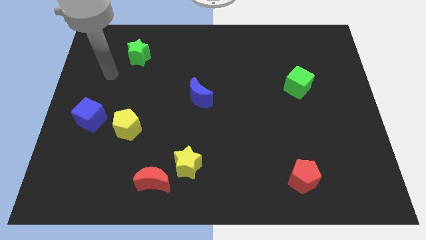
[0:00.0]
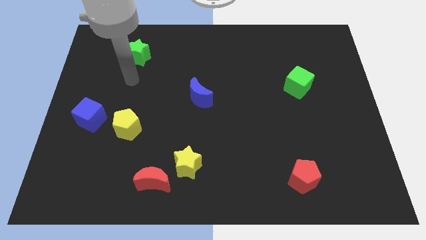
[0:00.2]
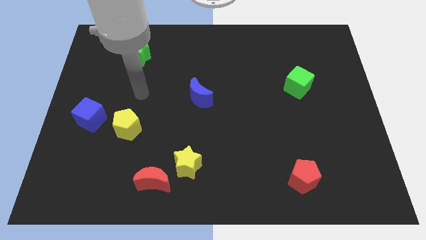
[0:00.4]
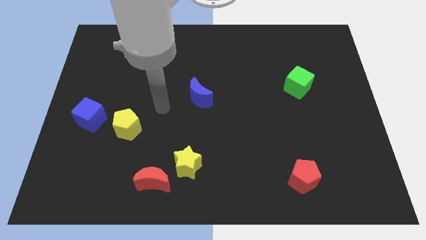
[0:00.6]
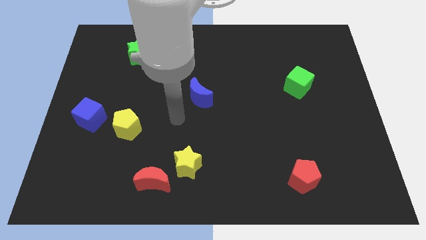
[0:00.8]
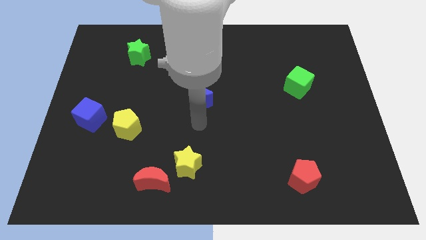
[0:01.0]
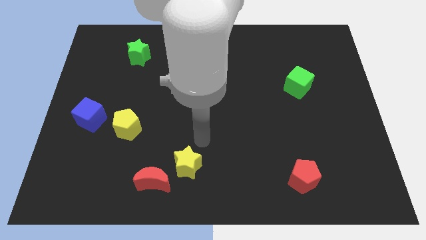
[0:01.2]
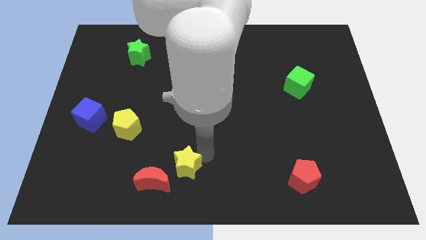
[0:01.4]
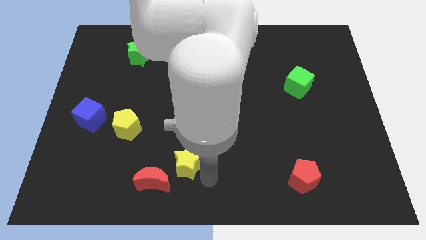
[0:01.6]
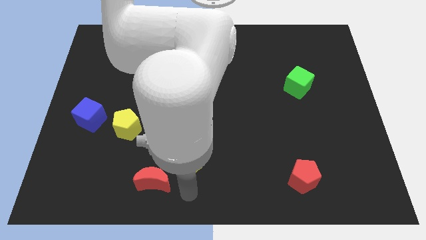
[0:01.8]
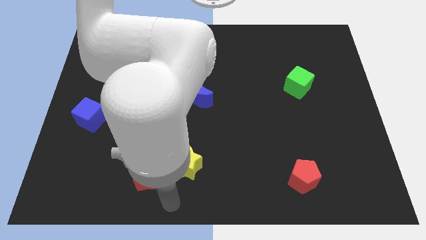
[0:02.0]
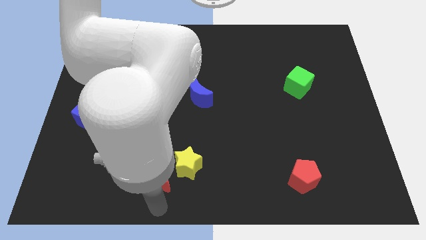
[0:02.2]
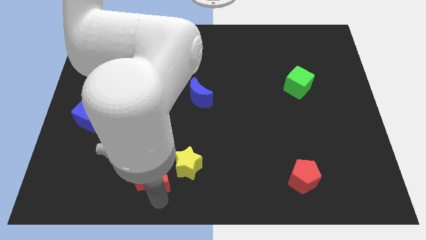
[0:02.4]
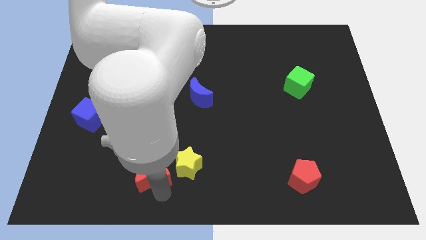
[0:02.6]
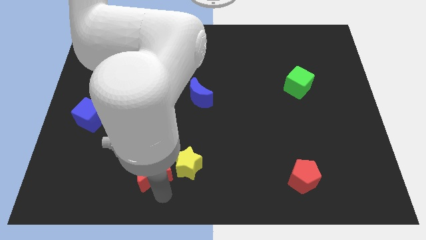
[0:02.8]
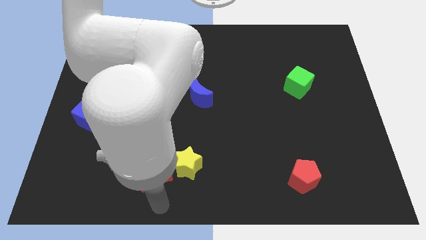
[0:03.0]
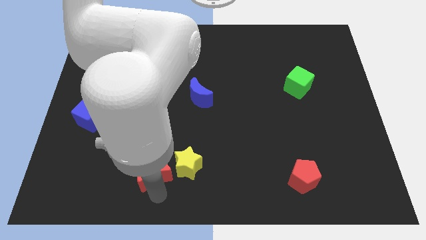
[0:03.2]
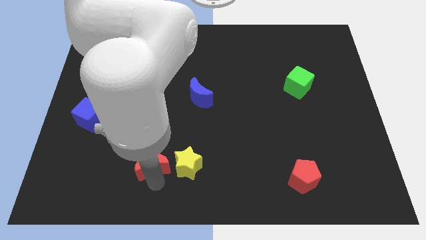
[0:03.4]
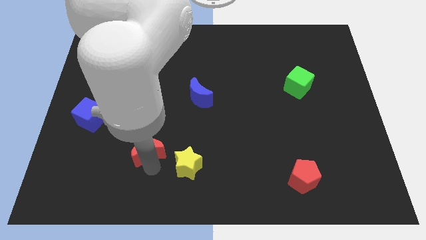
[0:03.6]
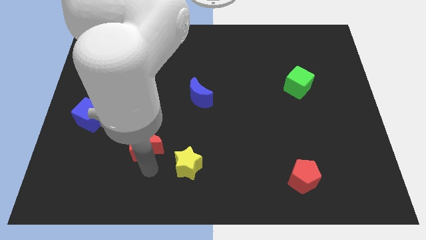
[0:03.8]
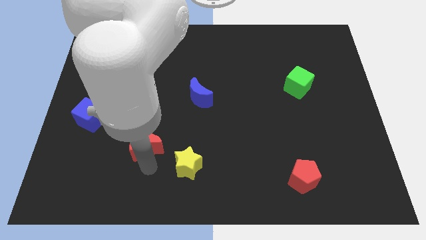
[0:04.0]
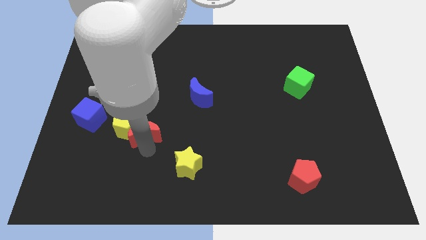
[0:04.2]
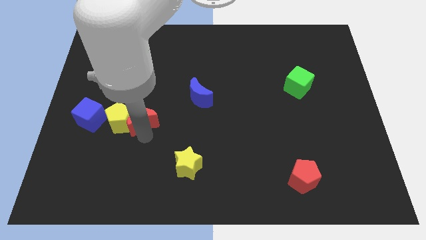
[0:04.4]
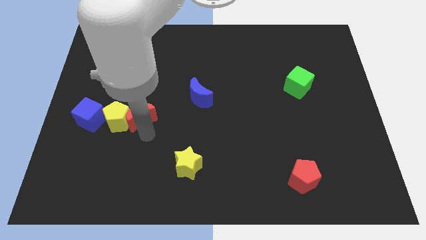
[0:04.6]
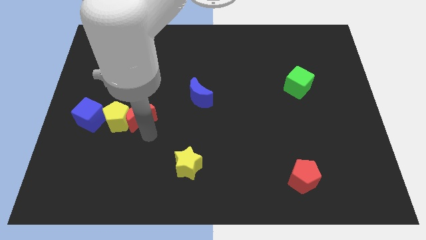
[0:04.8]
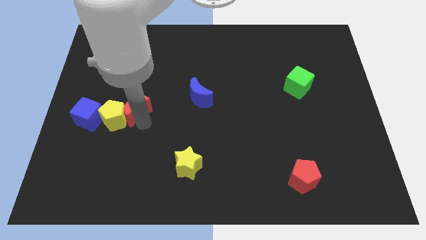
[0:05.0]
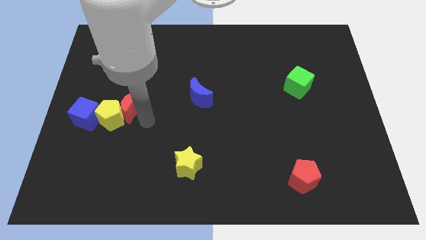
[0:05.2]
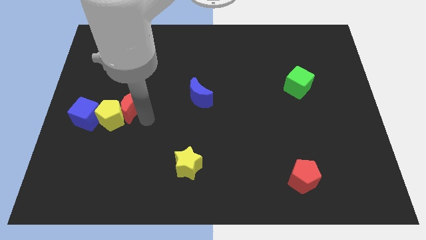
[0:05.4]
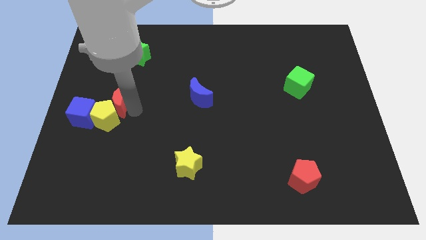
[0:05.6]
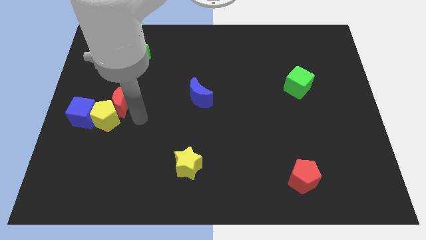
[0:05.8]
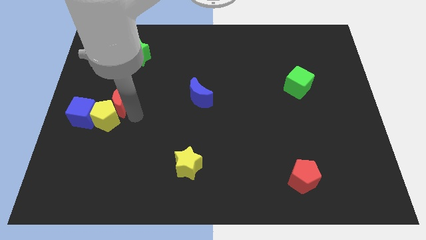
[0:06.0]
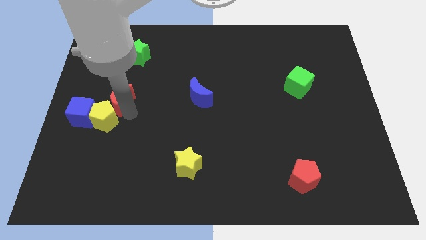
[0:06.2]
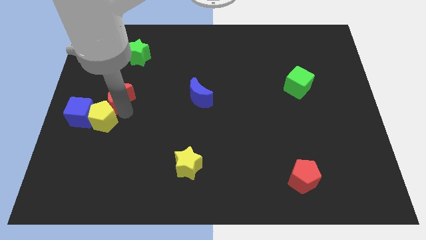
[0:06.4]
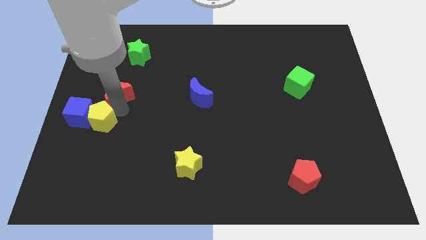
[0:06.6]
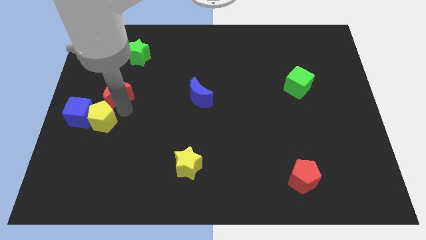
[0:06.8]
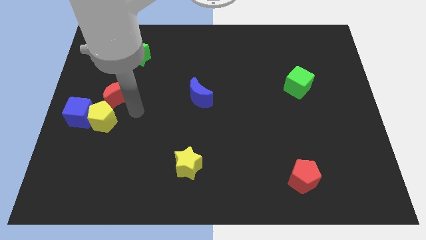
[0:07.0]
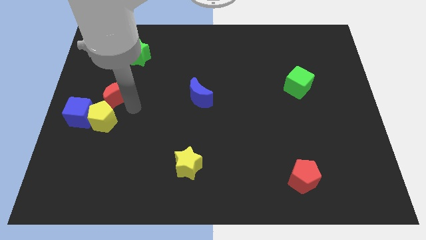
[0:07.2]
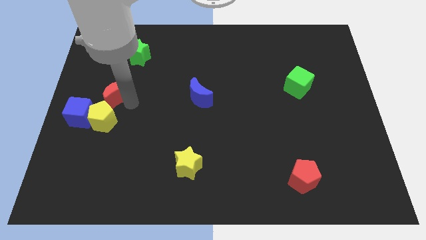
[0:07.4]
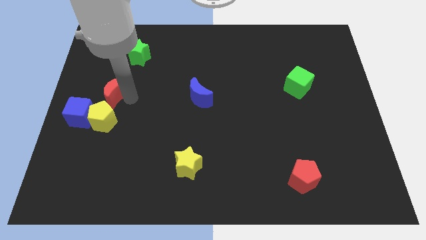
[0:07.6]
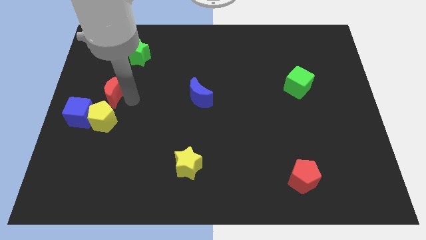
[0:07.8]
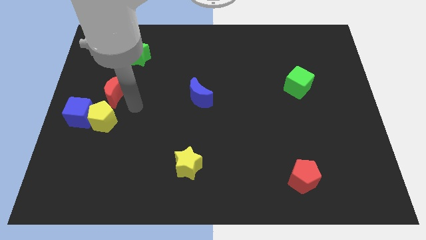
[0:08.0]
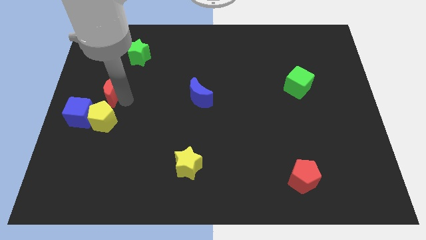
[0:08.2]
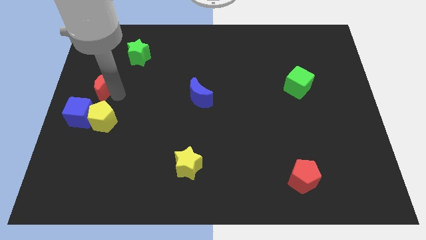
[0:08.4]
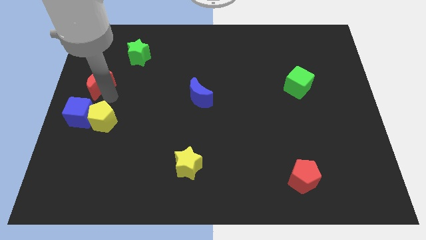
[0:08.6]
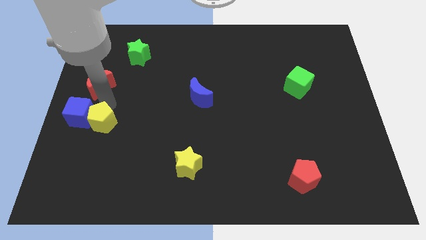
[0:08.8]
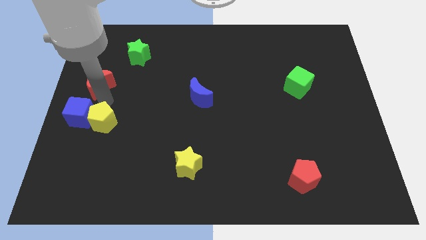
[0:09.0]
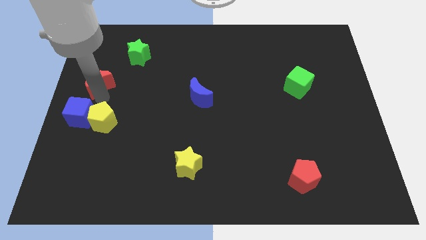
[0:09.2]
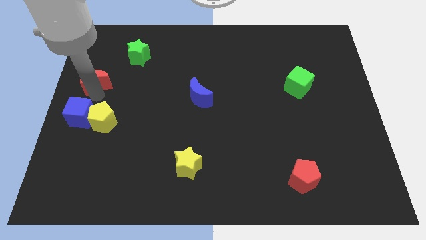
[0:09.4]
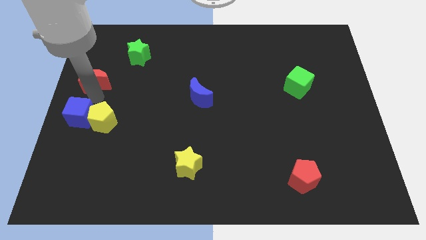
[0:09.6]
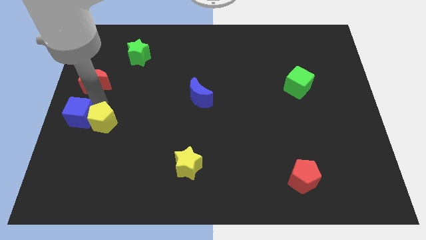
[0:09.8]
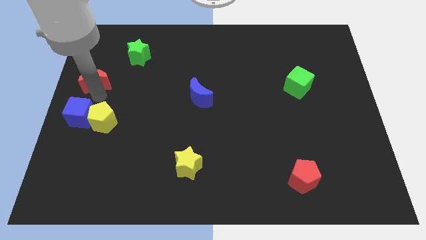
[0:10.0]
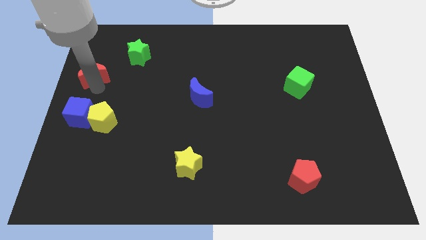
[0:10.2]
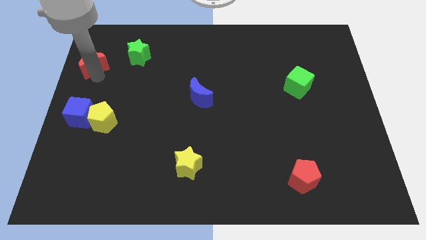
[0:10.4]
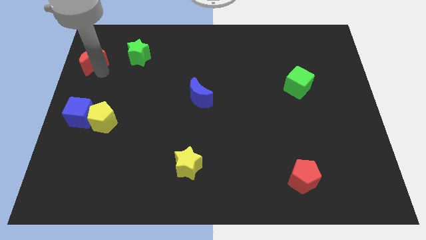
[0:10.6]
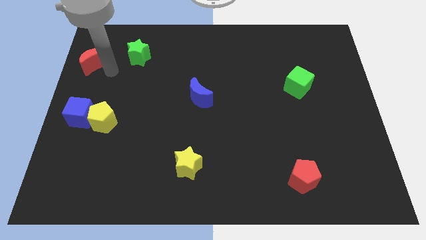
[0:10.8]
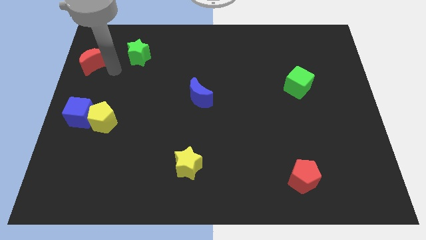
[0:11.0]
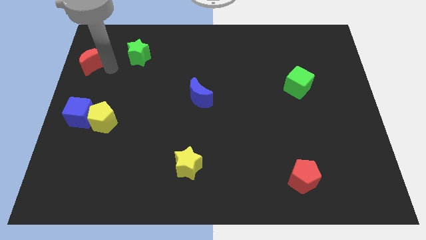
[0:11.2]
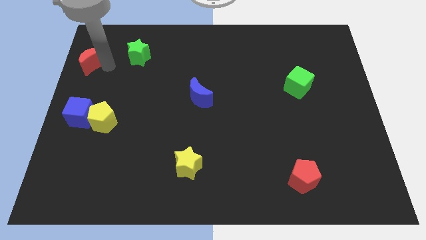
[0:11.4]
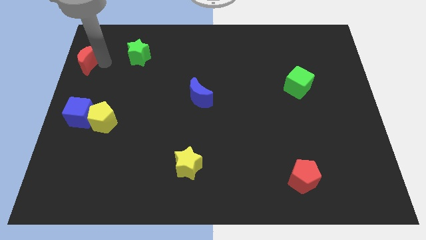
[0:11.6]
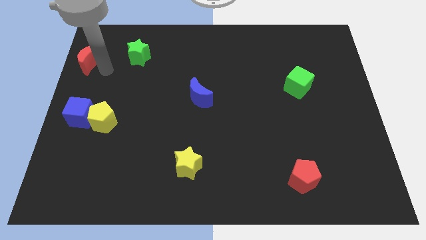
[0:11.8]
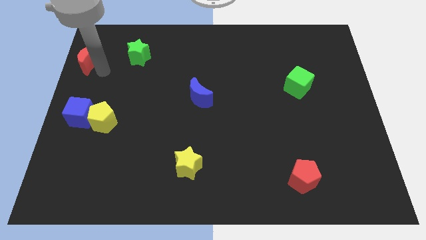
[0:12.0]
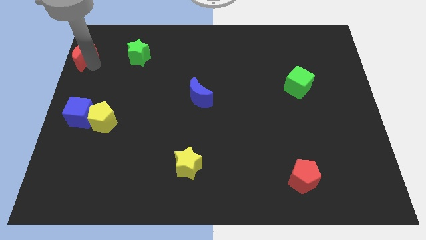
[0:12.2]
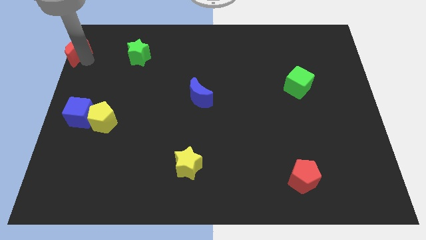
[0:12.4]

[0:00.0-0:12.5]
put the red moon to the top left of the board
